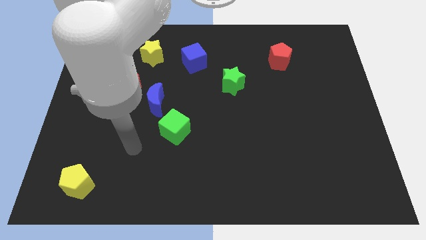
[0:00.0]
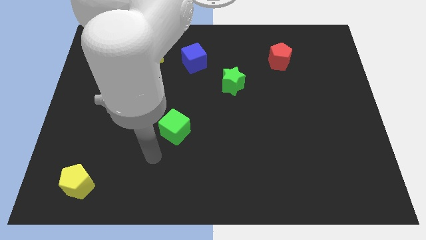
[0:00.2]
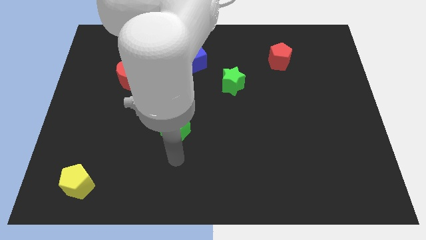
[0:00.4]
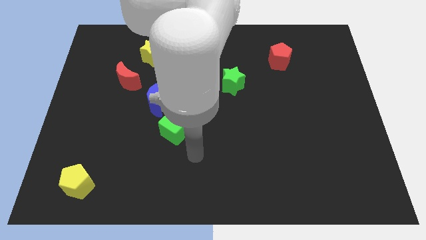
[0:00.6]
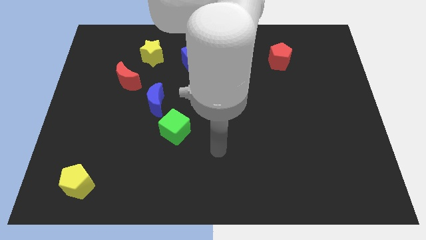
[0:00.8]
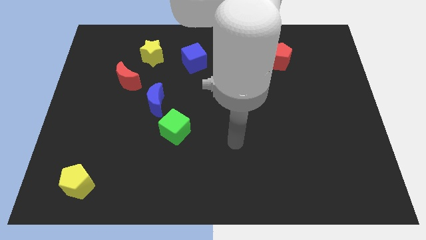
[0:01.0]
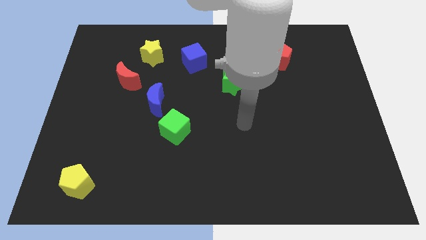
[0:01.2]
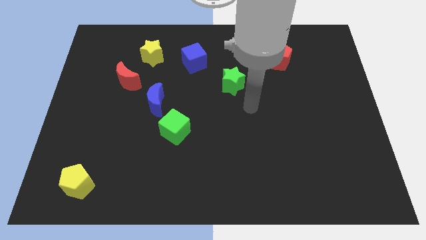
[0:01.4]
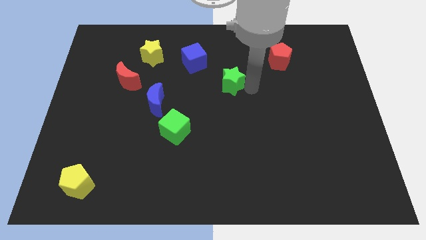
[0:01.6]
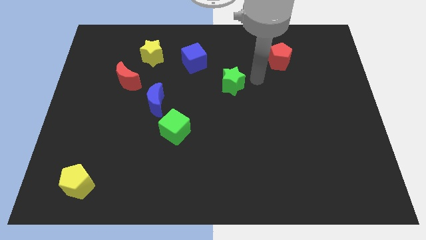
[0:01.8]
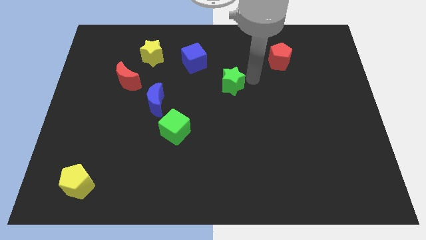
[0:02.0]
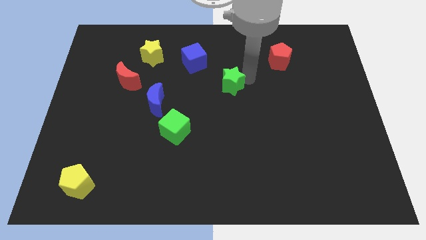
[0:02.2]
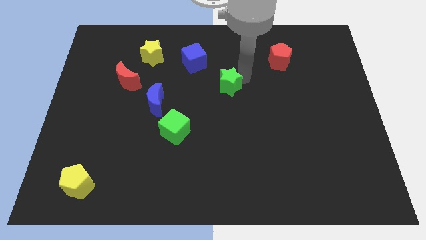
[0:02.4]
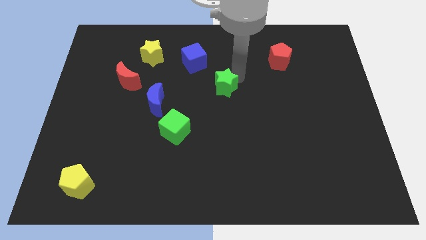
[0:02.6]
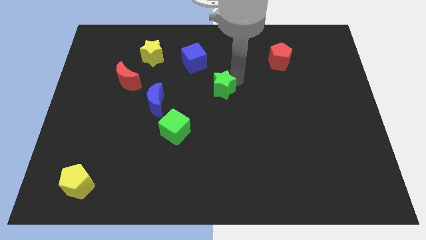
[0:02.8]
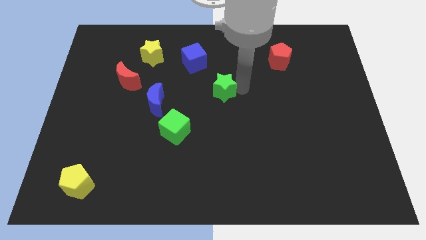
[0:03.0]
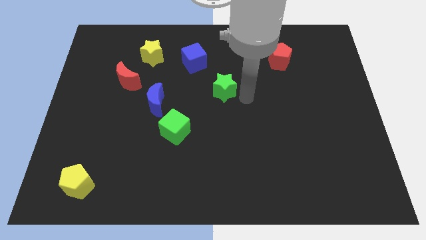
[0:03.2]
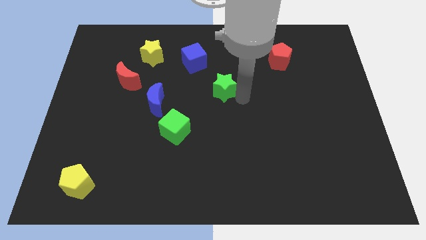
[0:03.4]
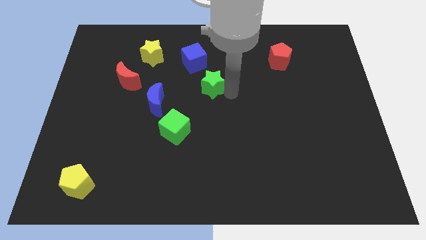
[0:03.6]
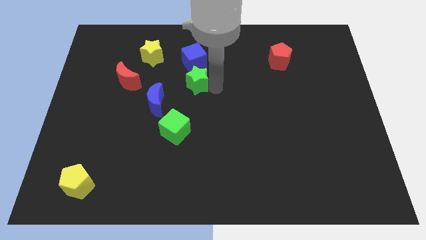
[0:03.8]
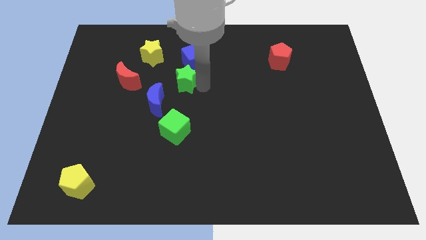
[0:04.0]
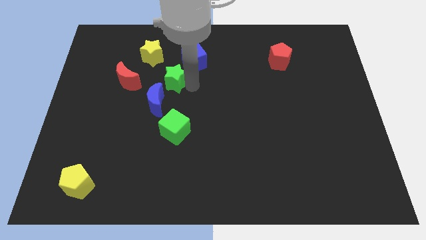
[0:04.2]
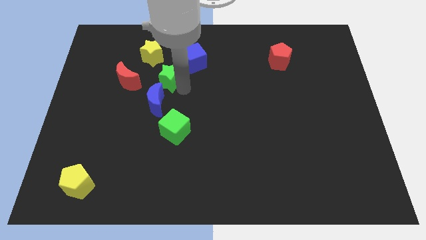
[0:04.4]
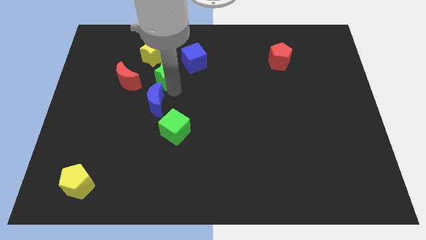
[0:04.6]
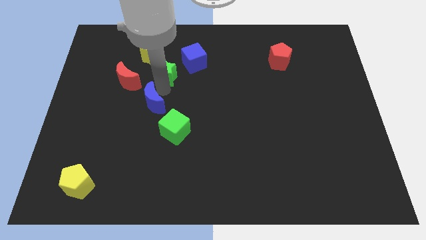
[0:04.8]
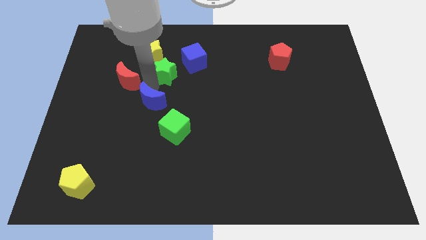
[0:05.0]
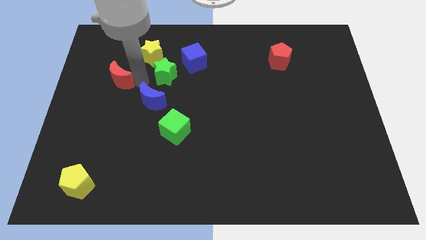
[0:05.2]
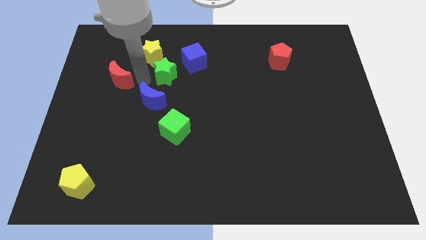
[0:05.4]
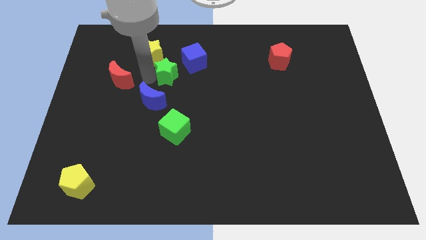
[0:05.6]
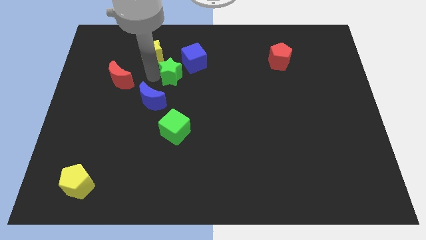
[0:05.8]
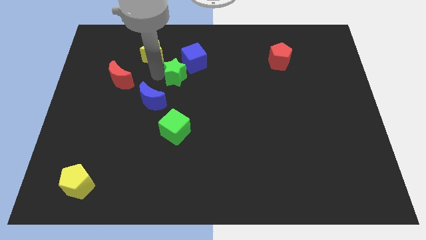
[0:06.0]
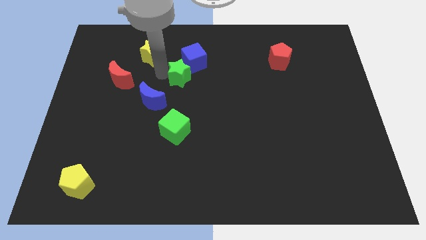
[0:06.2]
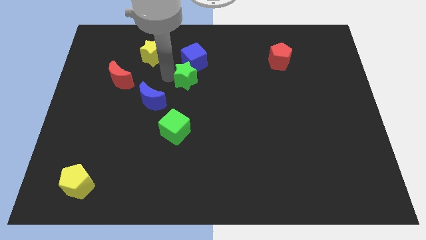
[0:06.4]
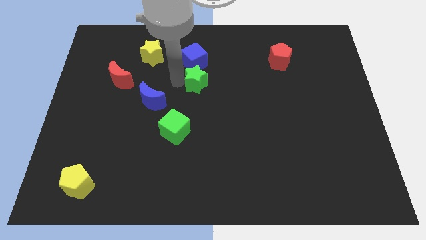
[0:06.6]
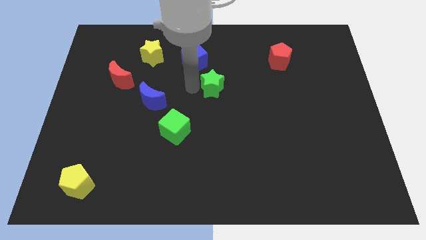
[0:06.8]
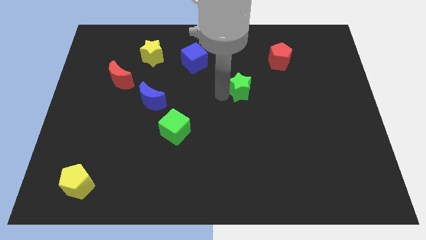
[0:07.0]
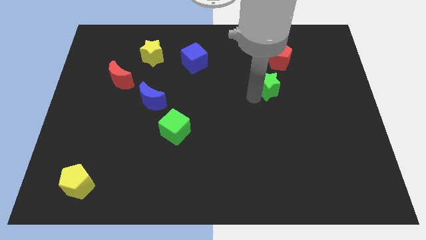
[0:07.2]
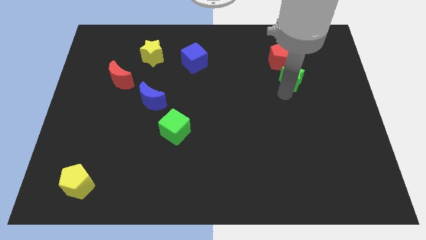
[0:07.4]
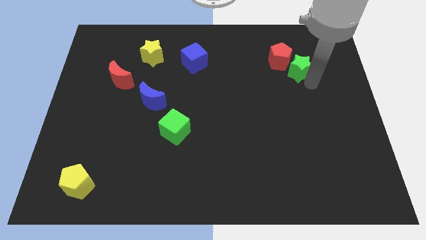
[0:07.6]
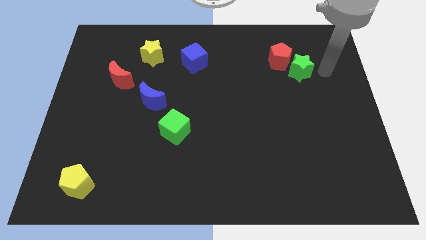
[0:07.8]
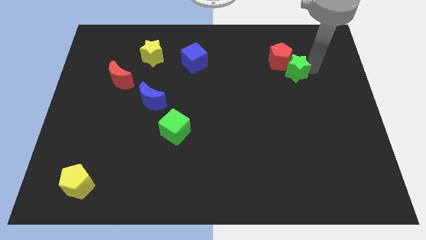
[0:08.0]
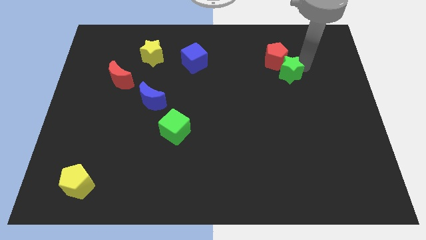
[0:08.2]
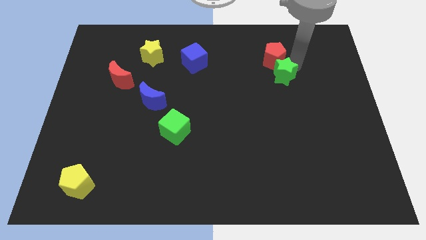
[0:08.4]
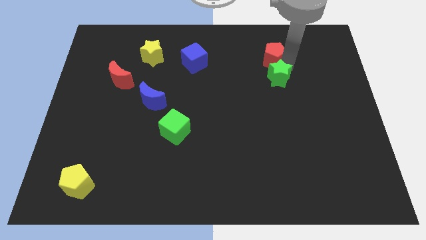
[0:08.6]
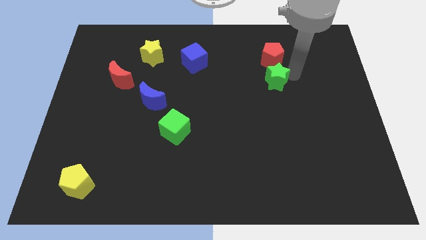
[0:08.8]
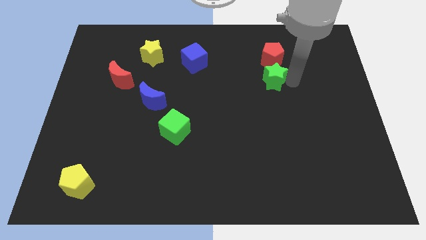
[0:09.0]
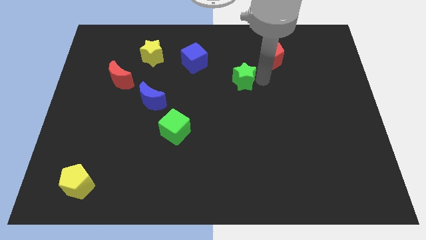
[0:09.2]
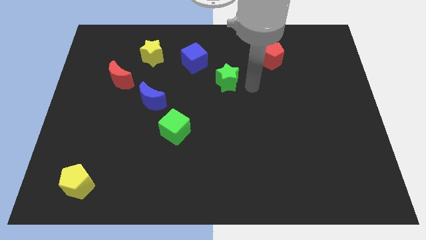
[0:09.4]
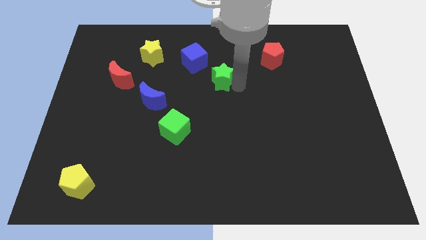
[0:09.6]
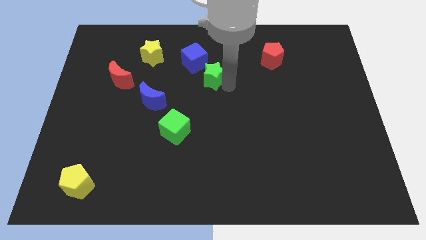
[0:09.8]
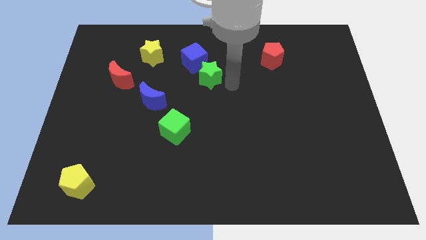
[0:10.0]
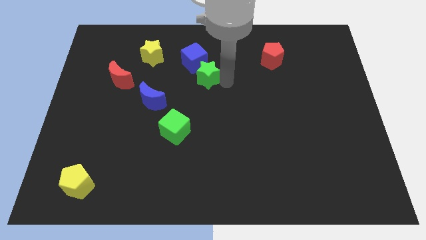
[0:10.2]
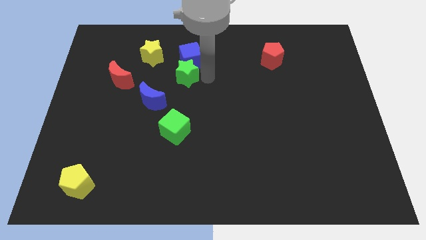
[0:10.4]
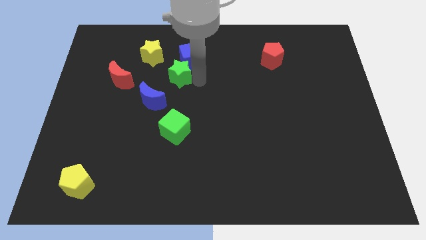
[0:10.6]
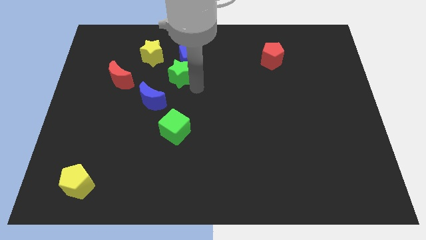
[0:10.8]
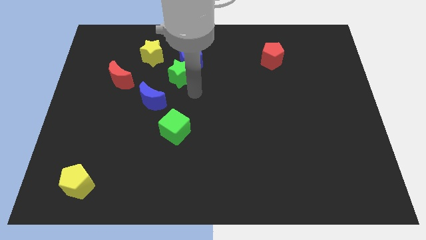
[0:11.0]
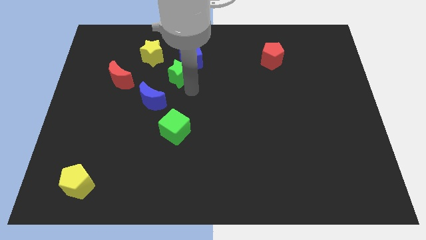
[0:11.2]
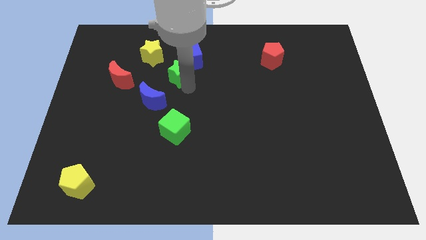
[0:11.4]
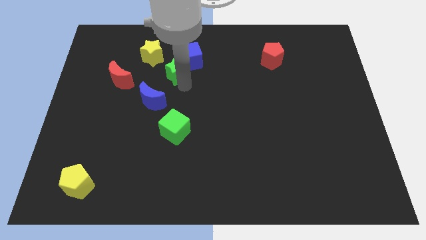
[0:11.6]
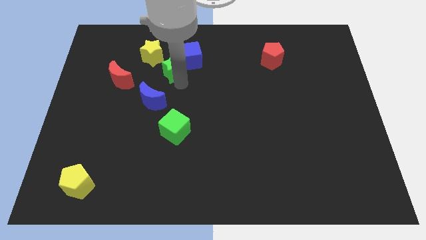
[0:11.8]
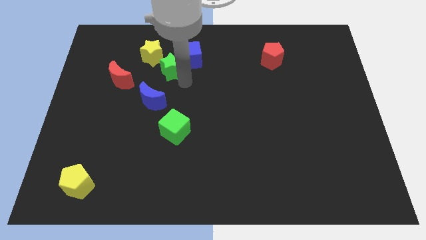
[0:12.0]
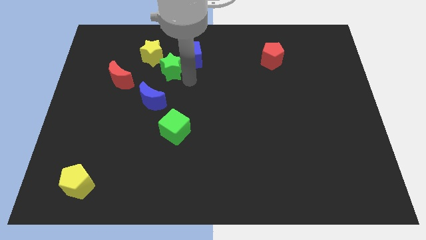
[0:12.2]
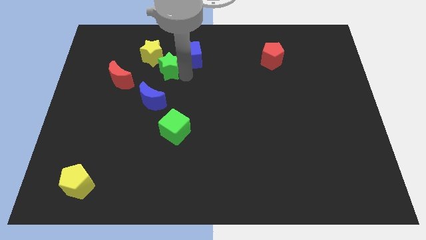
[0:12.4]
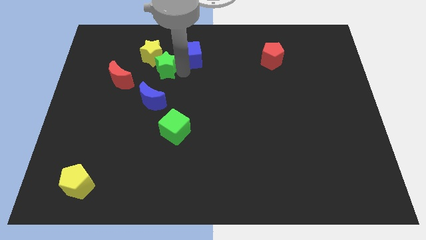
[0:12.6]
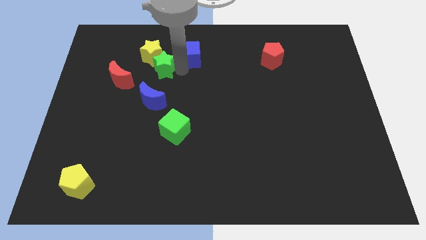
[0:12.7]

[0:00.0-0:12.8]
put the green star towards the yellow star
